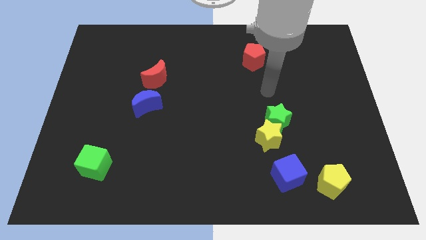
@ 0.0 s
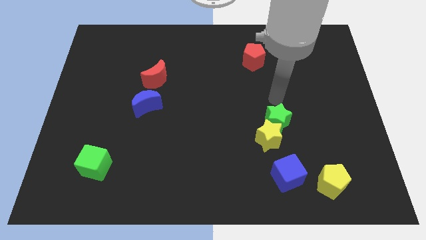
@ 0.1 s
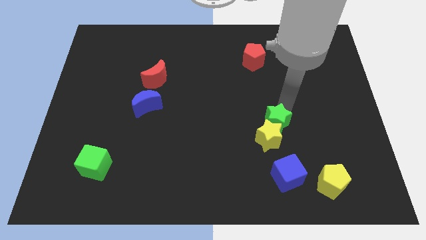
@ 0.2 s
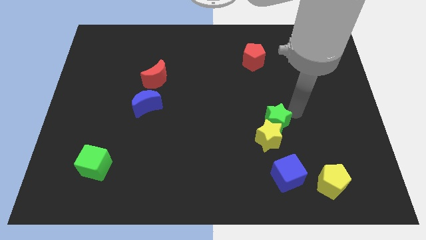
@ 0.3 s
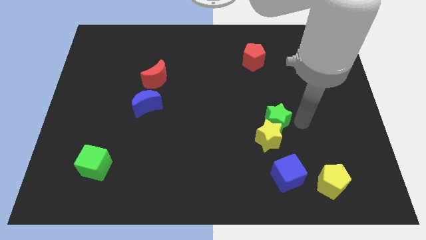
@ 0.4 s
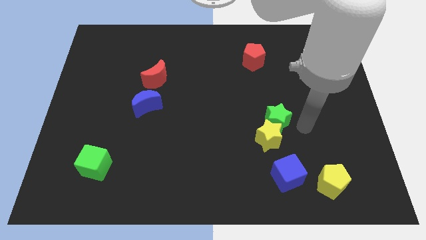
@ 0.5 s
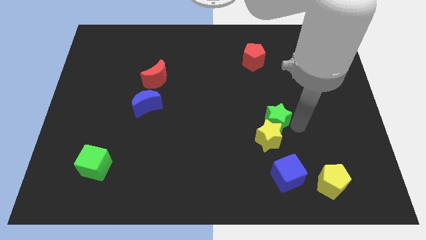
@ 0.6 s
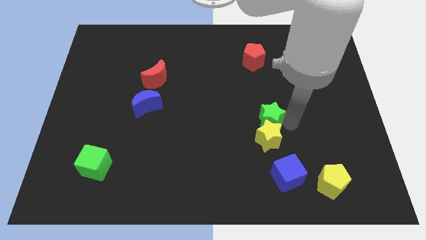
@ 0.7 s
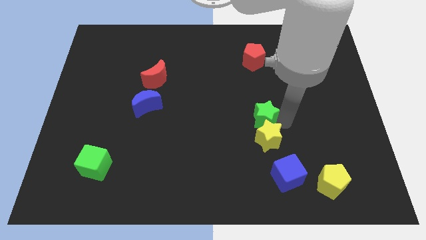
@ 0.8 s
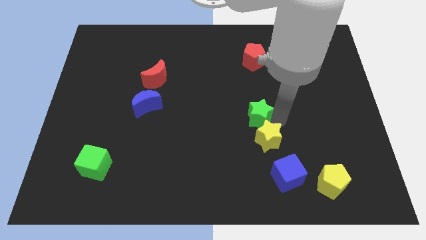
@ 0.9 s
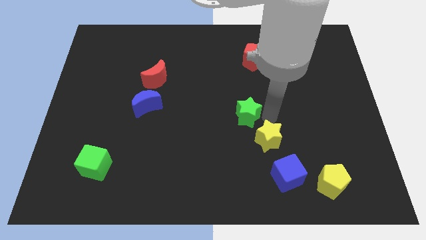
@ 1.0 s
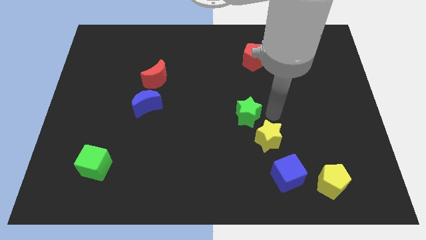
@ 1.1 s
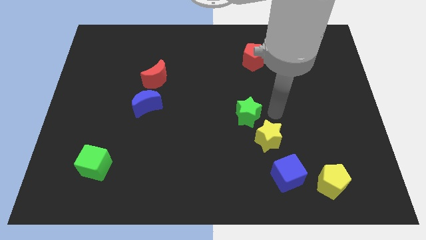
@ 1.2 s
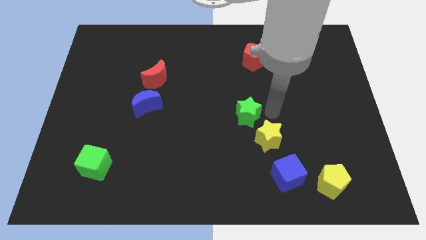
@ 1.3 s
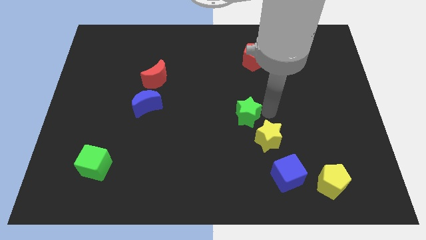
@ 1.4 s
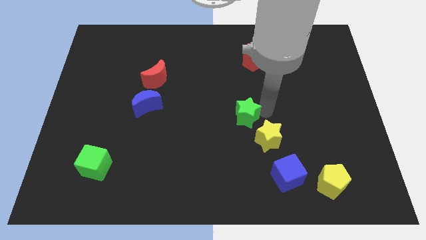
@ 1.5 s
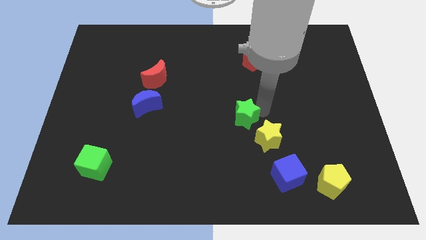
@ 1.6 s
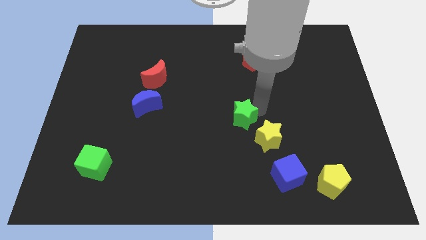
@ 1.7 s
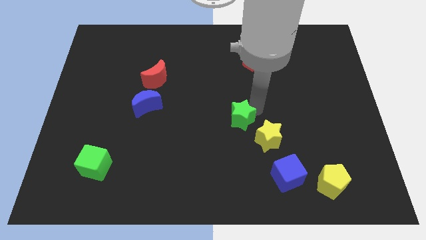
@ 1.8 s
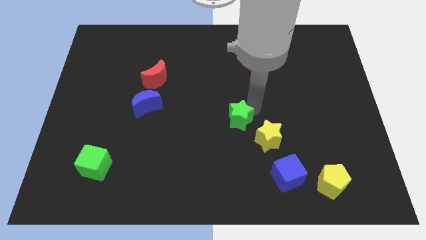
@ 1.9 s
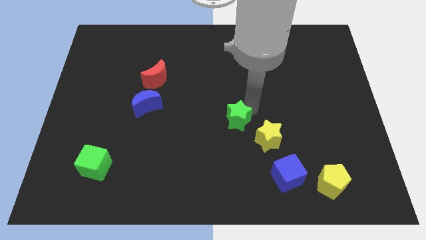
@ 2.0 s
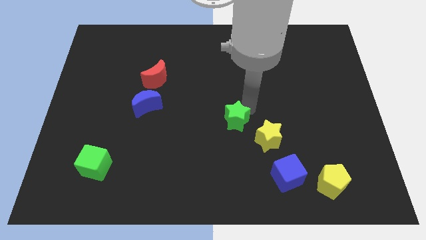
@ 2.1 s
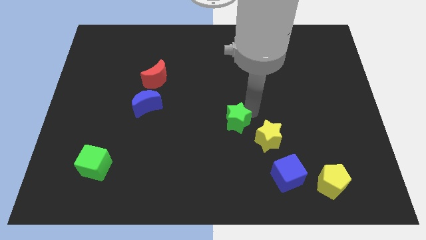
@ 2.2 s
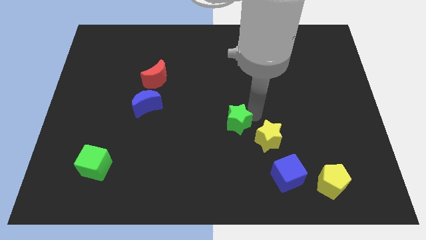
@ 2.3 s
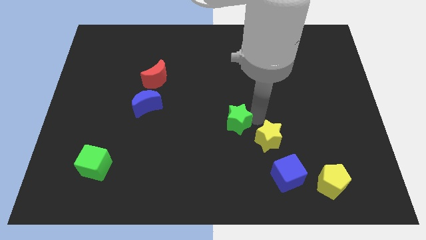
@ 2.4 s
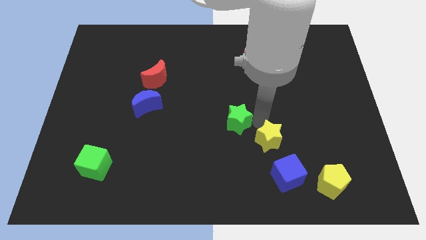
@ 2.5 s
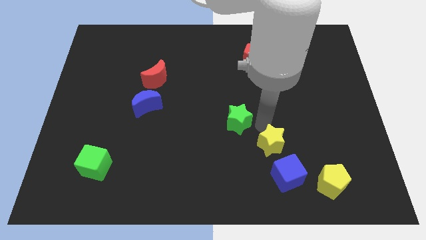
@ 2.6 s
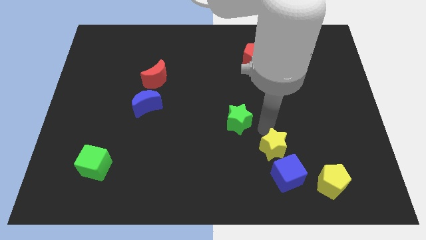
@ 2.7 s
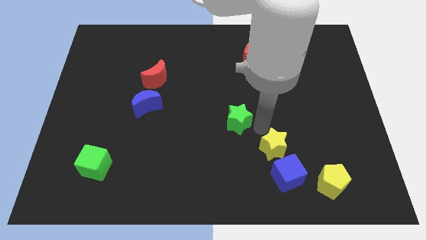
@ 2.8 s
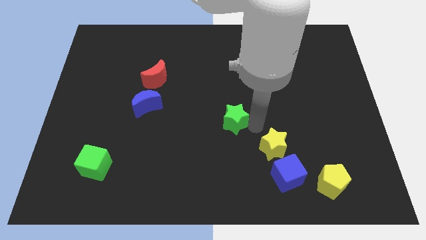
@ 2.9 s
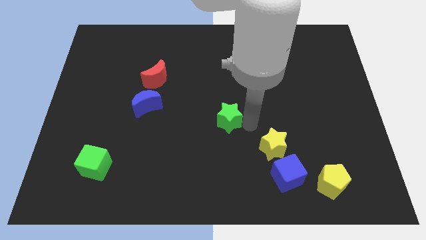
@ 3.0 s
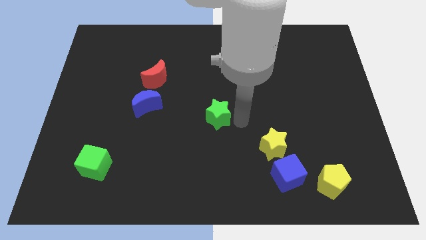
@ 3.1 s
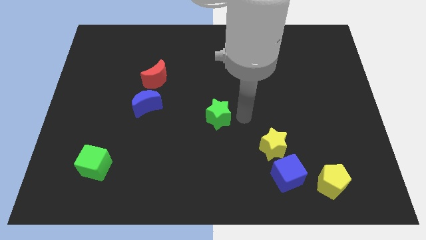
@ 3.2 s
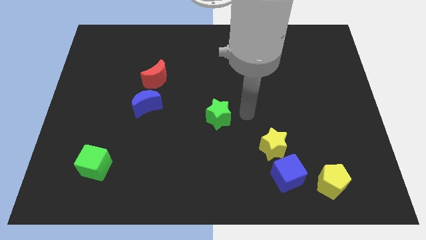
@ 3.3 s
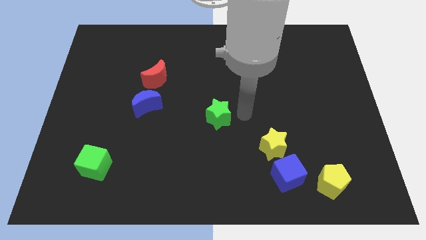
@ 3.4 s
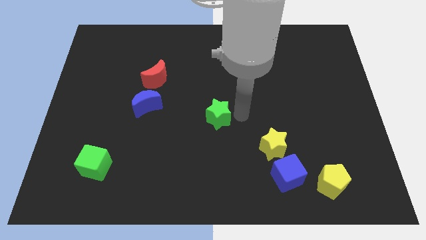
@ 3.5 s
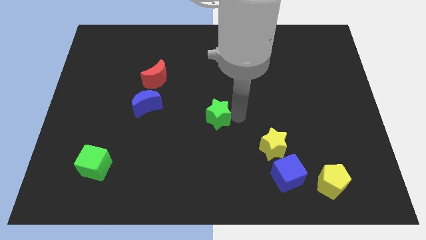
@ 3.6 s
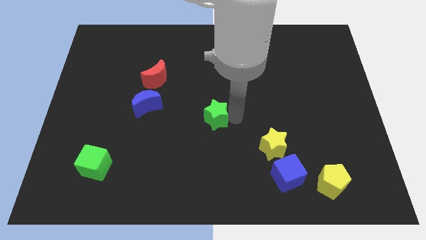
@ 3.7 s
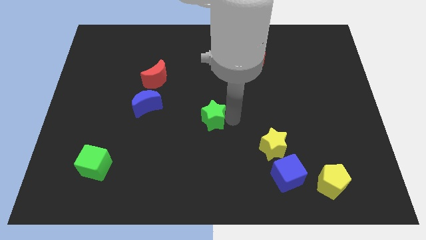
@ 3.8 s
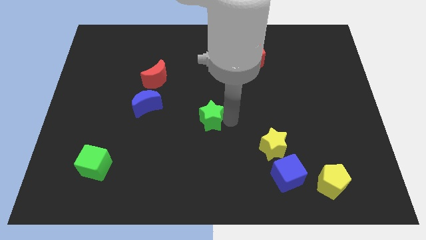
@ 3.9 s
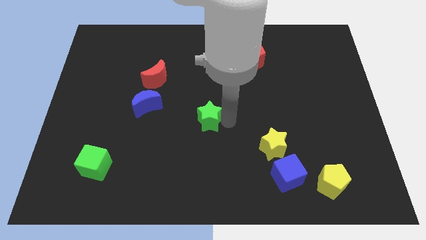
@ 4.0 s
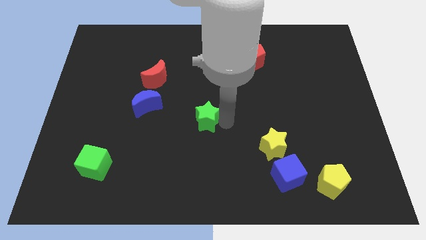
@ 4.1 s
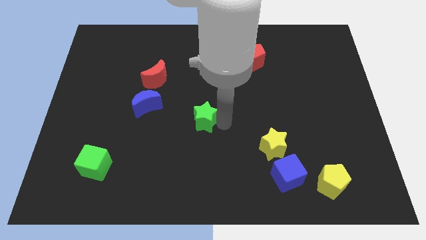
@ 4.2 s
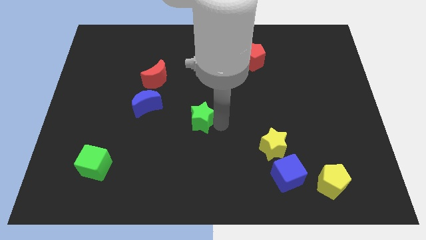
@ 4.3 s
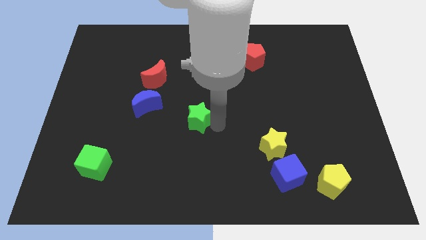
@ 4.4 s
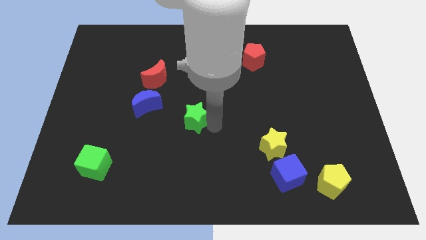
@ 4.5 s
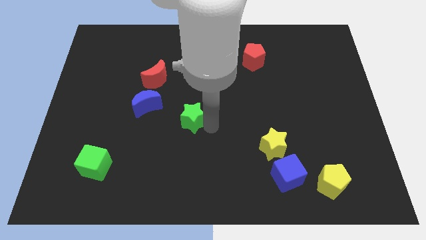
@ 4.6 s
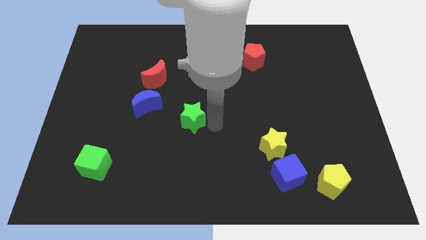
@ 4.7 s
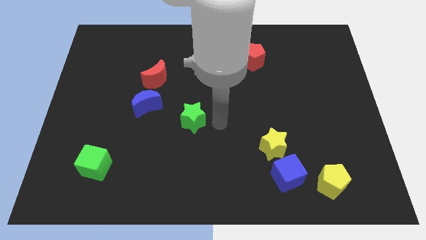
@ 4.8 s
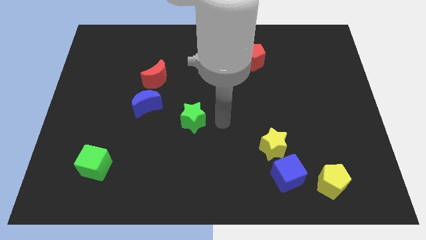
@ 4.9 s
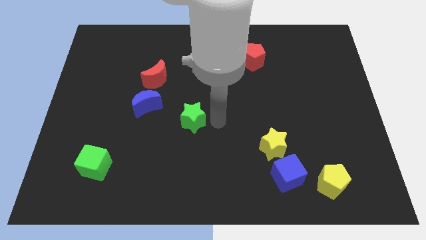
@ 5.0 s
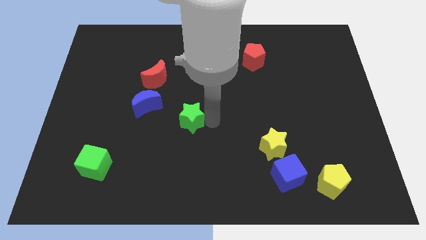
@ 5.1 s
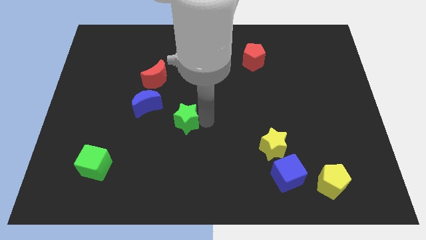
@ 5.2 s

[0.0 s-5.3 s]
push the green star left

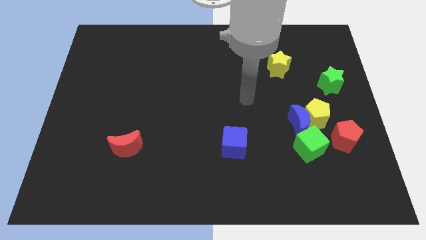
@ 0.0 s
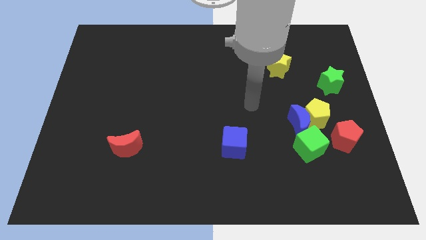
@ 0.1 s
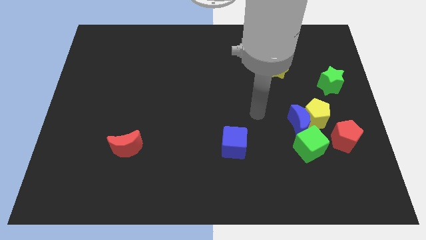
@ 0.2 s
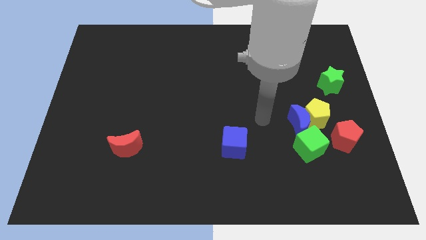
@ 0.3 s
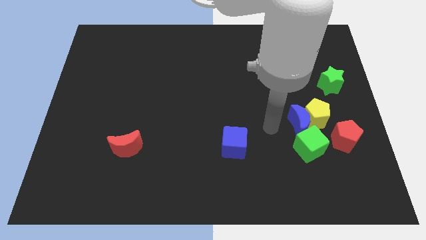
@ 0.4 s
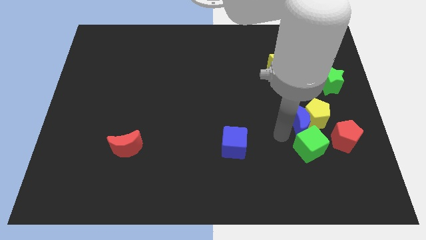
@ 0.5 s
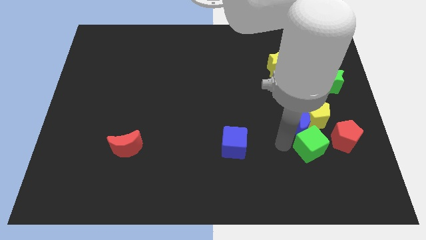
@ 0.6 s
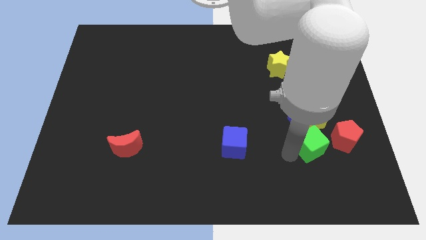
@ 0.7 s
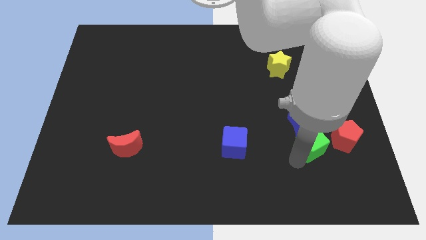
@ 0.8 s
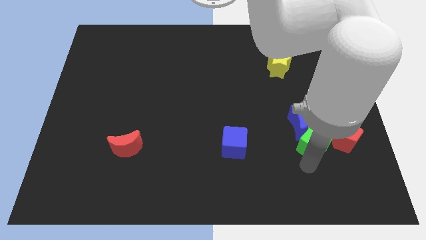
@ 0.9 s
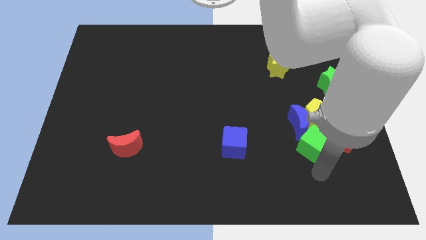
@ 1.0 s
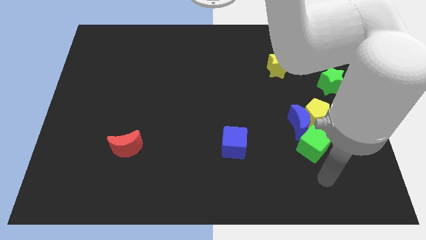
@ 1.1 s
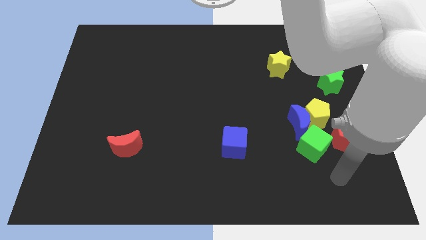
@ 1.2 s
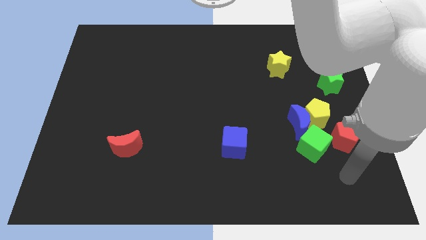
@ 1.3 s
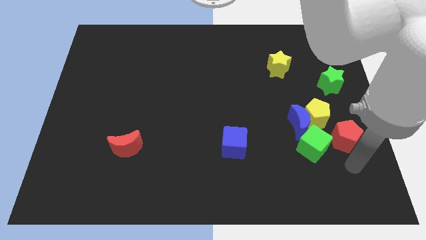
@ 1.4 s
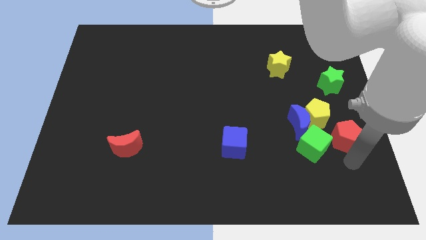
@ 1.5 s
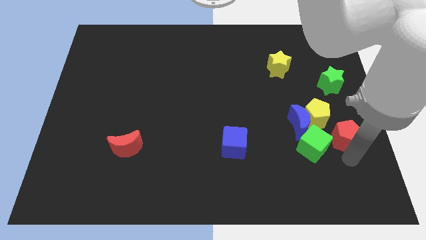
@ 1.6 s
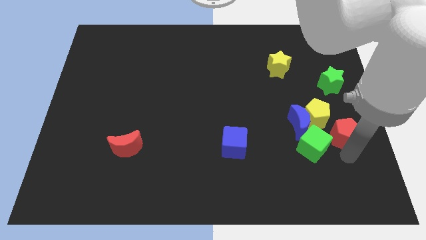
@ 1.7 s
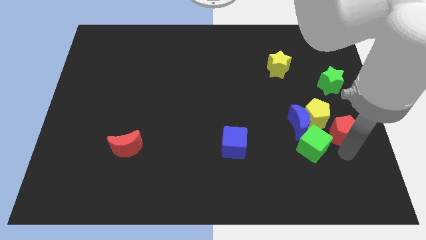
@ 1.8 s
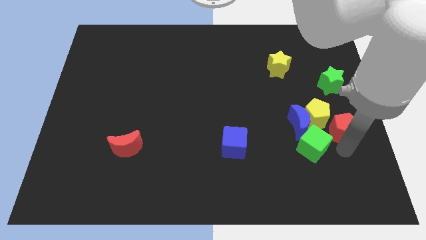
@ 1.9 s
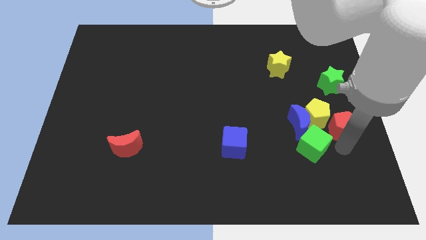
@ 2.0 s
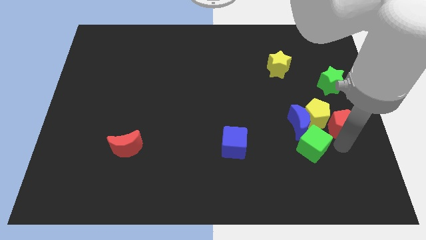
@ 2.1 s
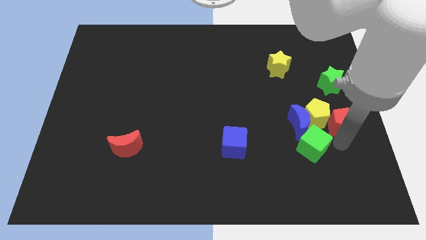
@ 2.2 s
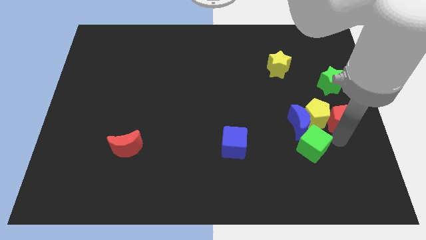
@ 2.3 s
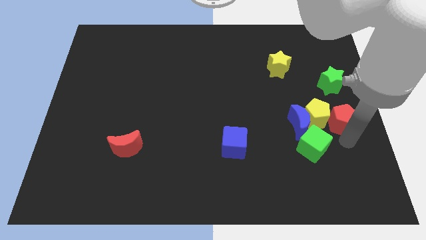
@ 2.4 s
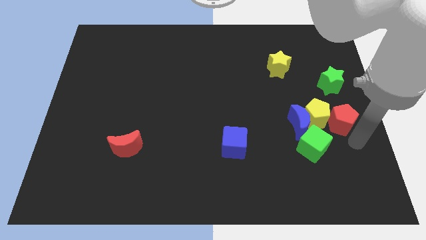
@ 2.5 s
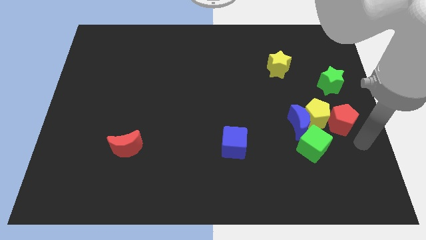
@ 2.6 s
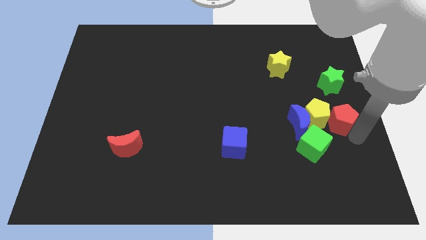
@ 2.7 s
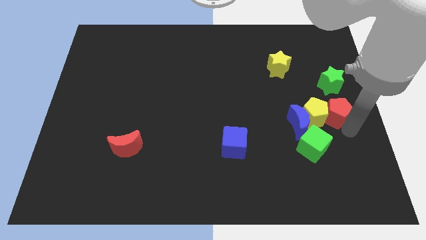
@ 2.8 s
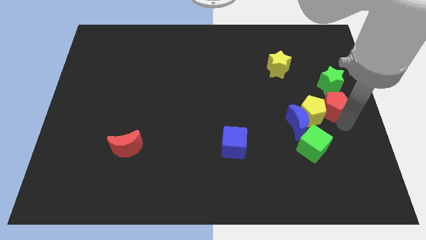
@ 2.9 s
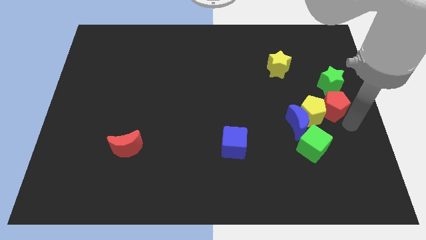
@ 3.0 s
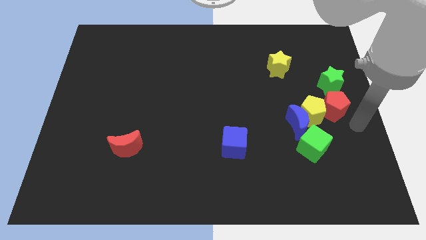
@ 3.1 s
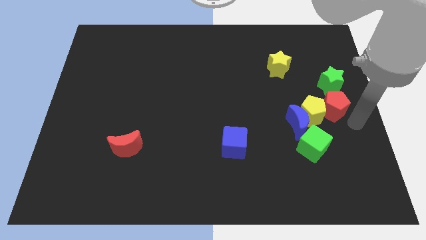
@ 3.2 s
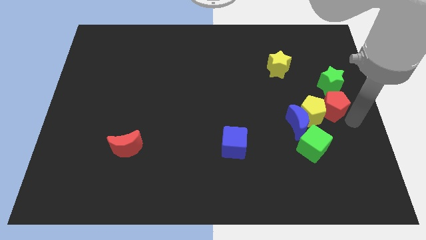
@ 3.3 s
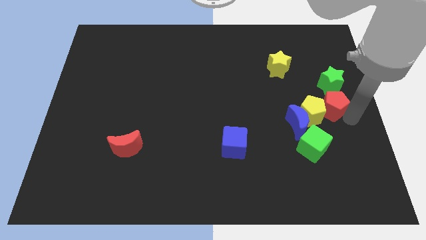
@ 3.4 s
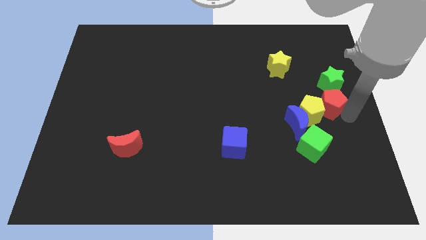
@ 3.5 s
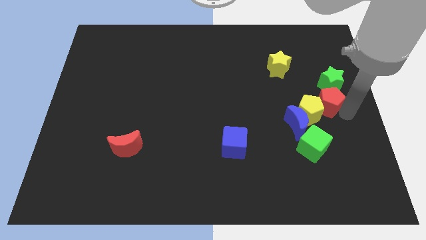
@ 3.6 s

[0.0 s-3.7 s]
push the red pentagon up and left a little bit
